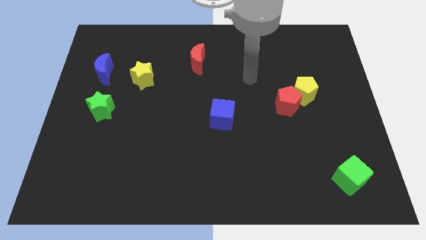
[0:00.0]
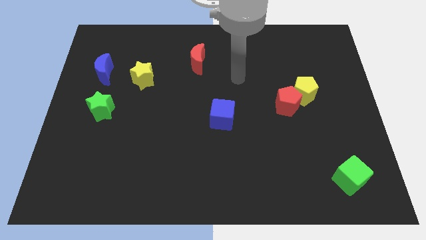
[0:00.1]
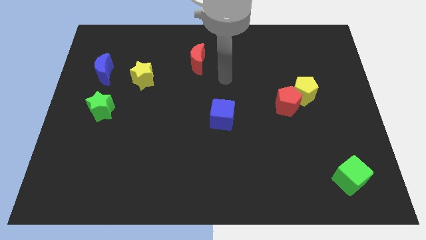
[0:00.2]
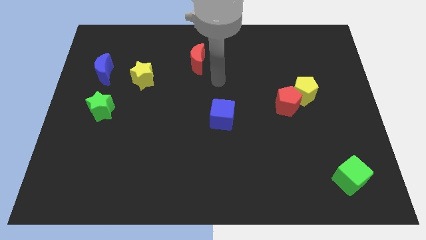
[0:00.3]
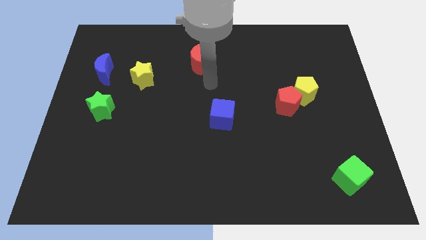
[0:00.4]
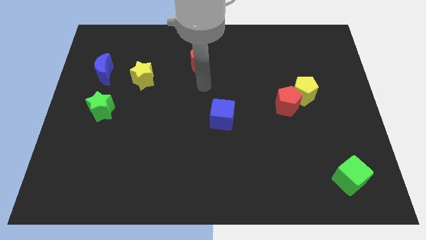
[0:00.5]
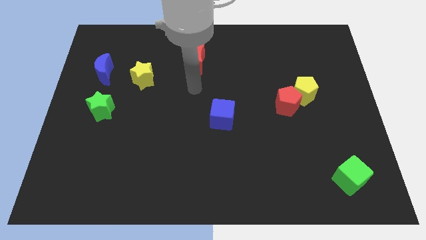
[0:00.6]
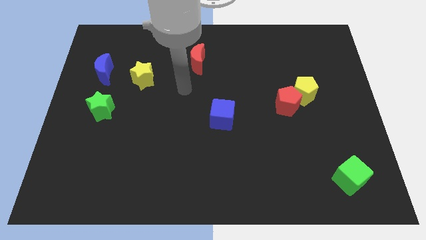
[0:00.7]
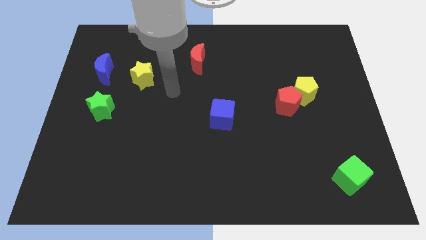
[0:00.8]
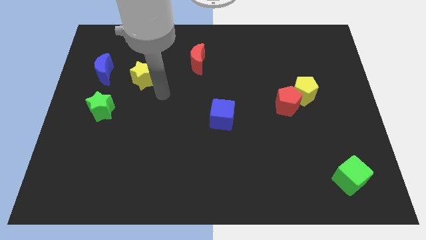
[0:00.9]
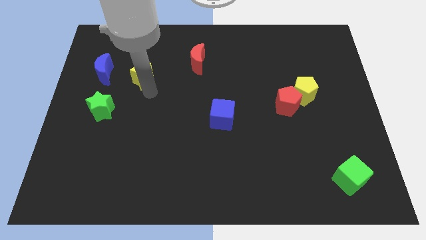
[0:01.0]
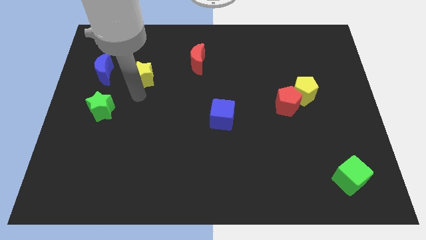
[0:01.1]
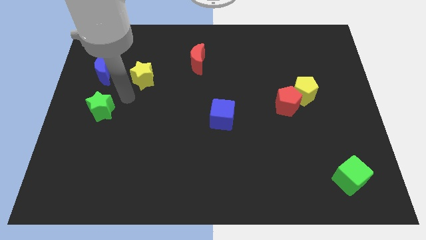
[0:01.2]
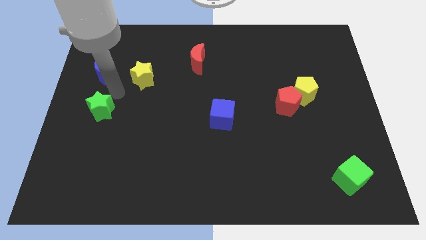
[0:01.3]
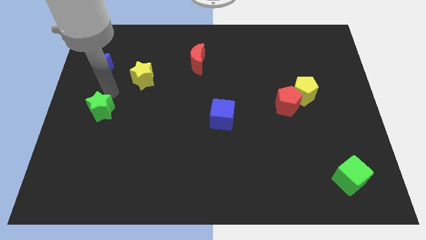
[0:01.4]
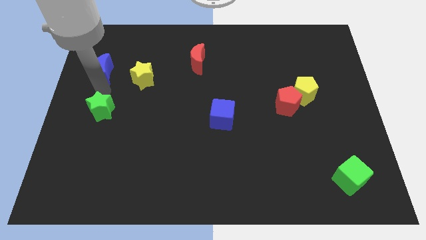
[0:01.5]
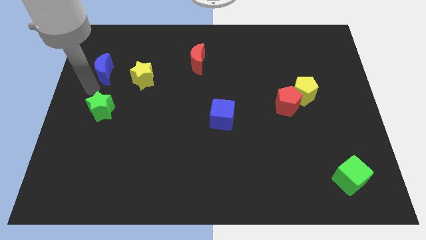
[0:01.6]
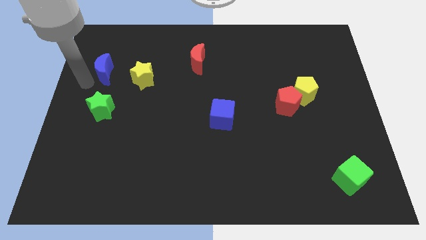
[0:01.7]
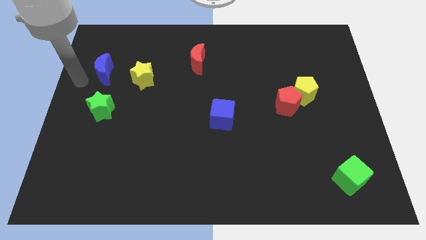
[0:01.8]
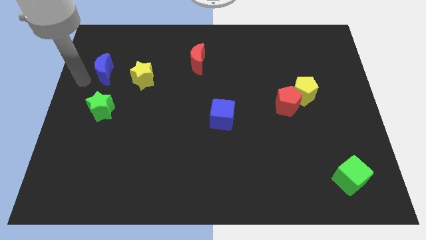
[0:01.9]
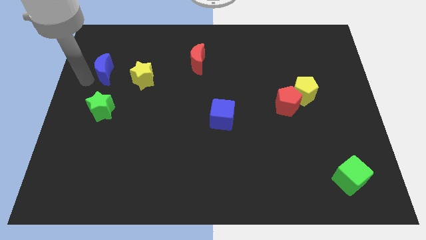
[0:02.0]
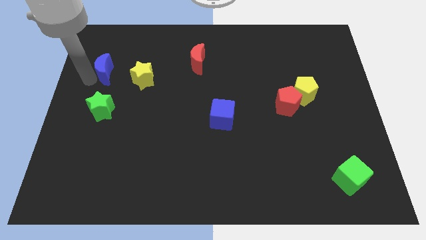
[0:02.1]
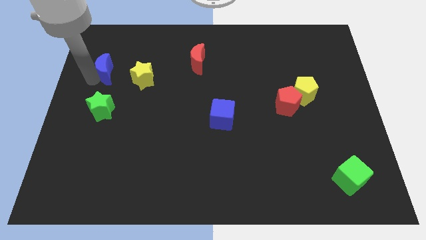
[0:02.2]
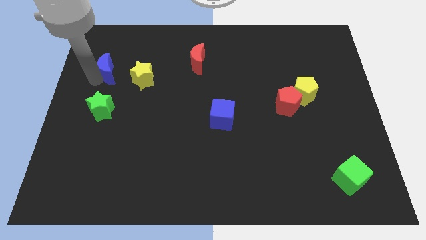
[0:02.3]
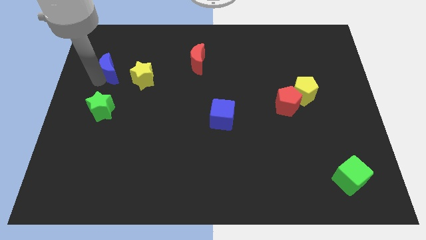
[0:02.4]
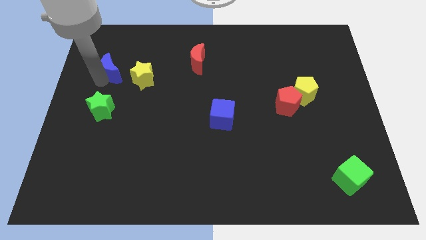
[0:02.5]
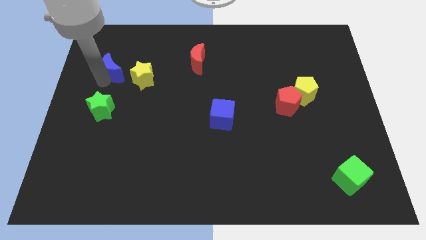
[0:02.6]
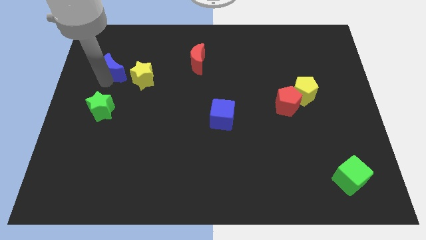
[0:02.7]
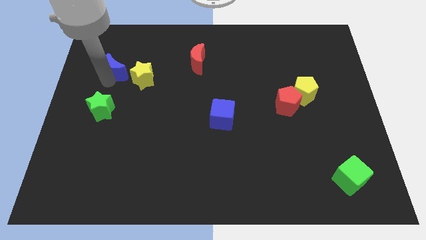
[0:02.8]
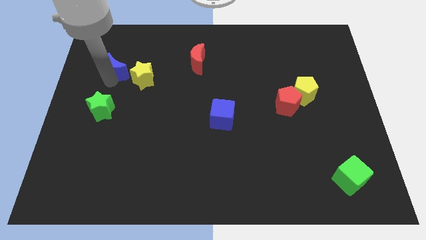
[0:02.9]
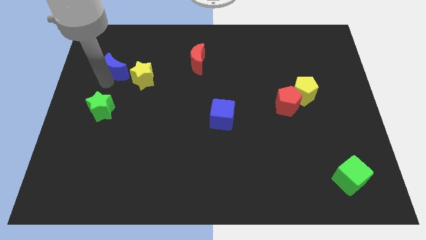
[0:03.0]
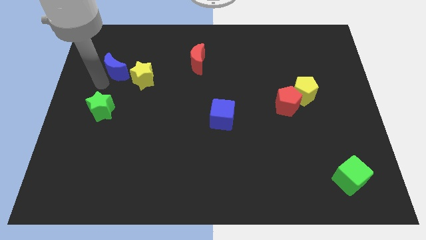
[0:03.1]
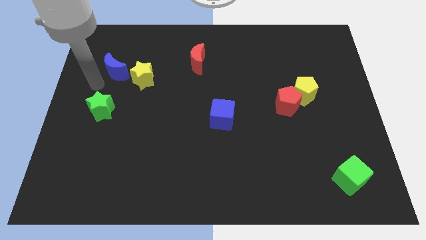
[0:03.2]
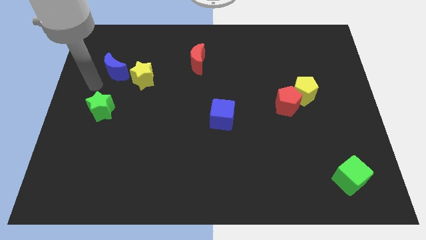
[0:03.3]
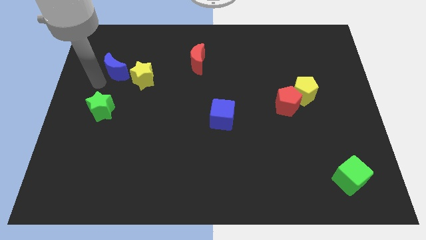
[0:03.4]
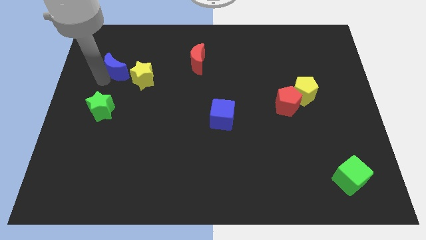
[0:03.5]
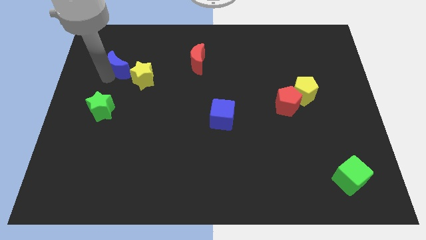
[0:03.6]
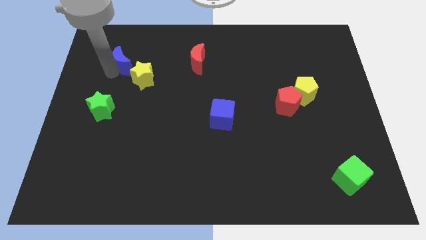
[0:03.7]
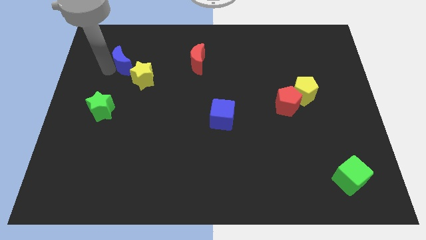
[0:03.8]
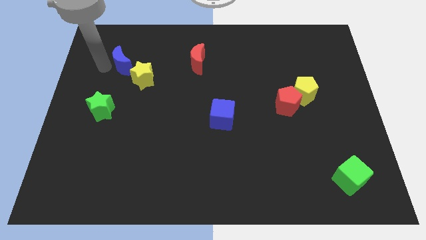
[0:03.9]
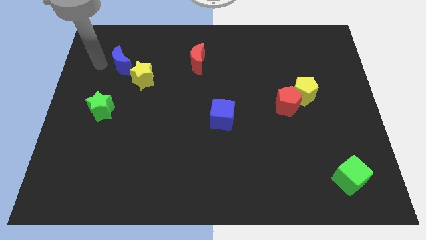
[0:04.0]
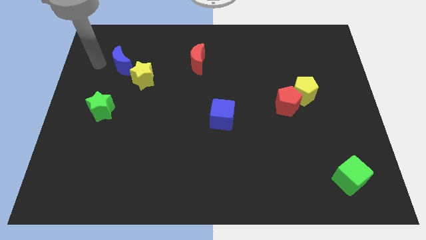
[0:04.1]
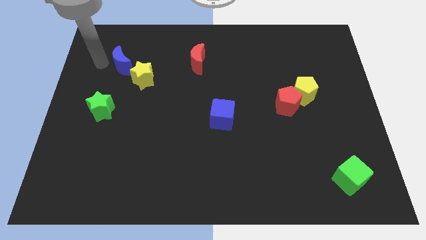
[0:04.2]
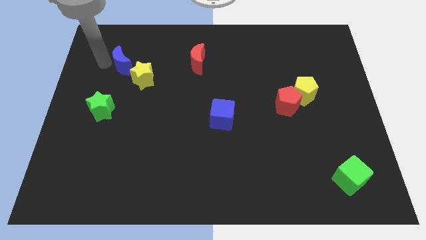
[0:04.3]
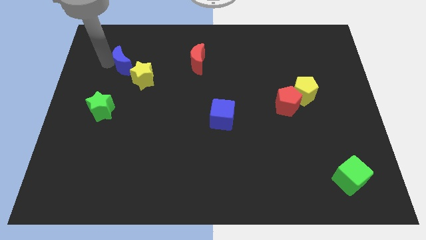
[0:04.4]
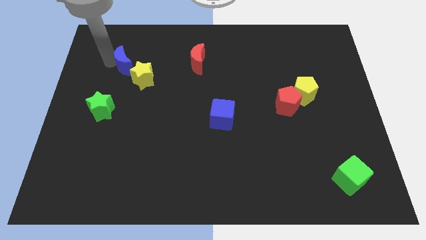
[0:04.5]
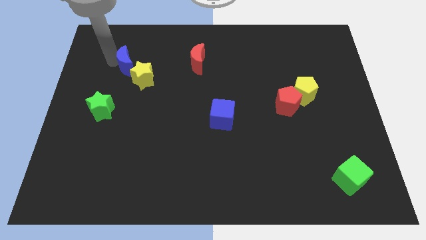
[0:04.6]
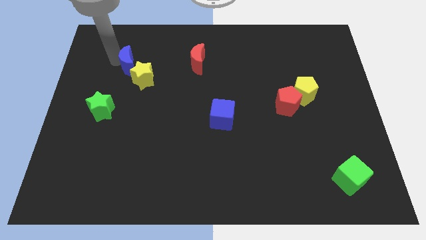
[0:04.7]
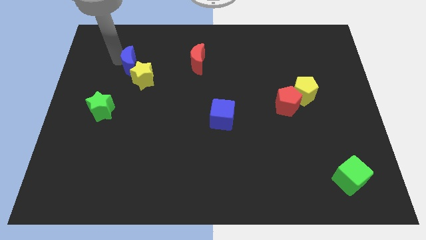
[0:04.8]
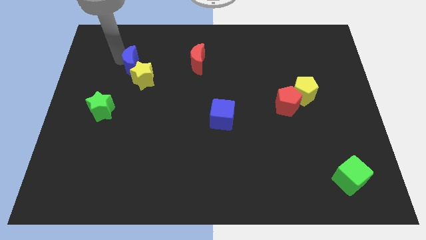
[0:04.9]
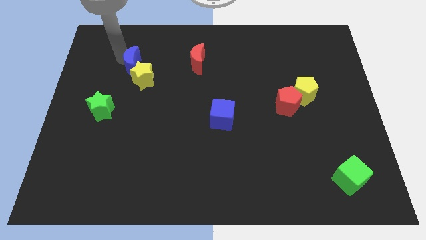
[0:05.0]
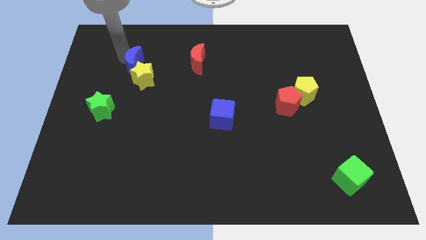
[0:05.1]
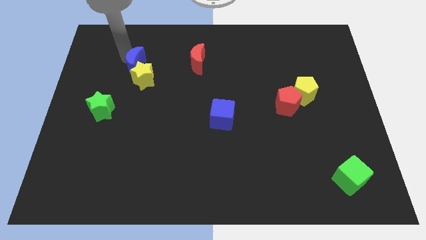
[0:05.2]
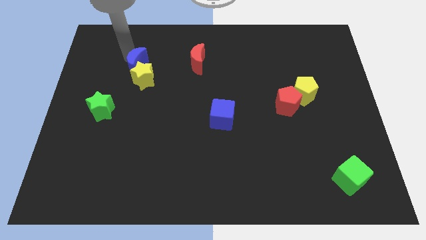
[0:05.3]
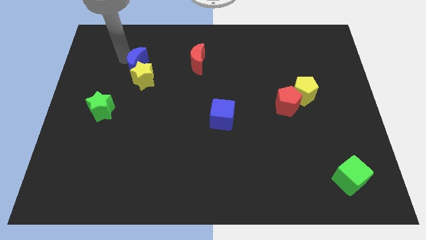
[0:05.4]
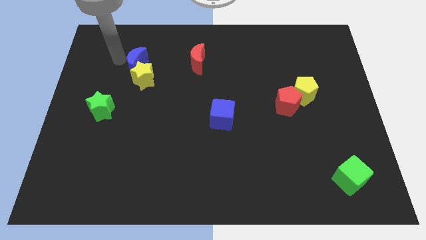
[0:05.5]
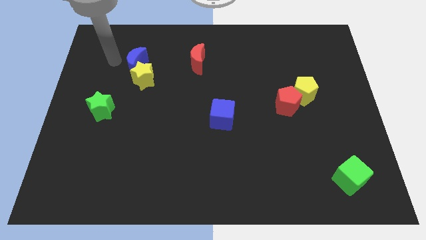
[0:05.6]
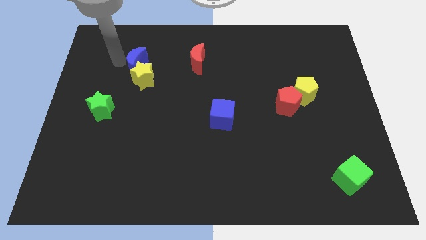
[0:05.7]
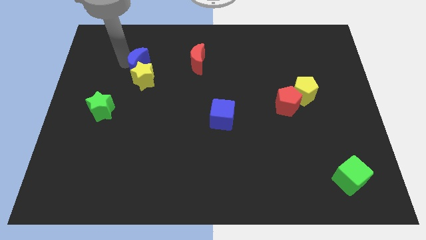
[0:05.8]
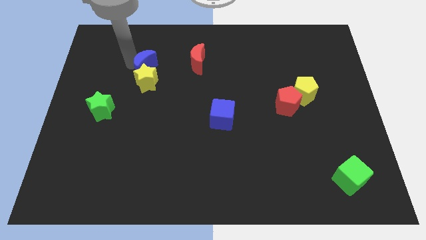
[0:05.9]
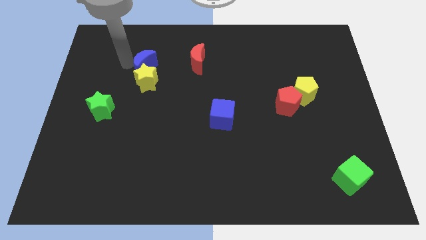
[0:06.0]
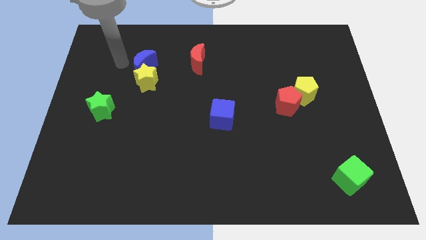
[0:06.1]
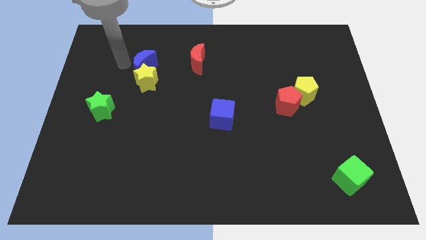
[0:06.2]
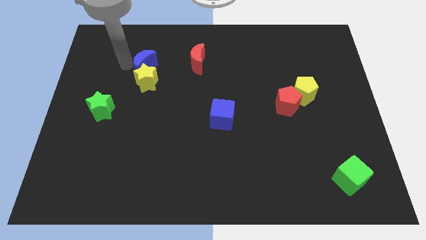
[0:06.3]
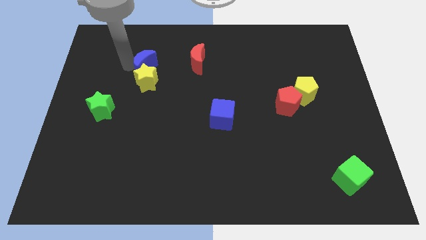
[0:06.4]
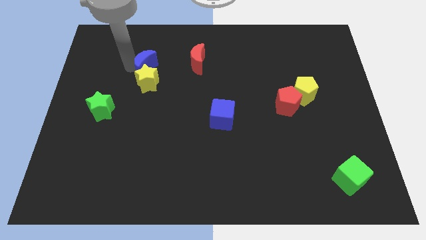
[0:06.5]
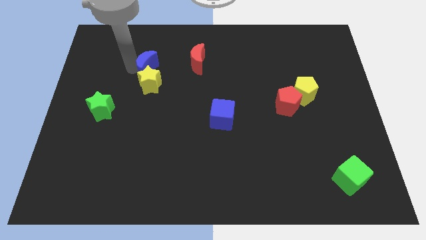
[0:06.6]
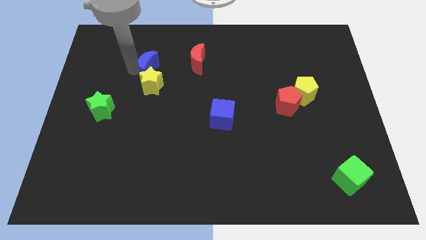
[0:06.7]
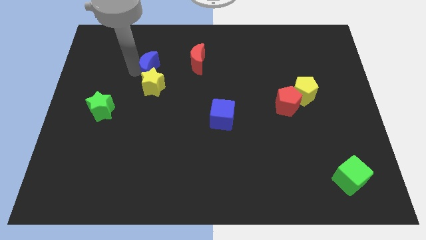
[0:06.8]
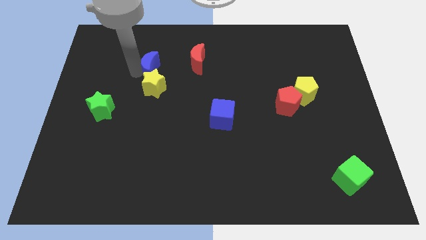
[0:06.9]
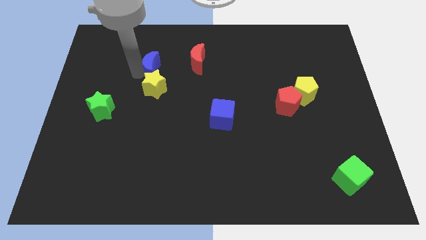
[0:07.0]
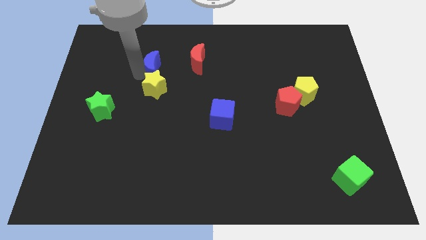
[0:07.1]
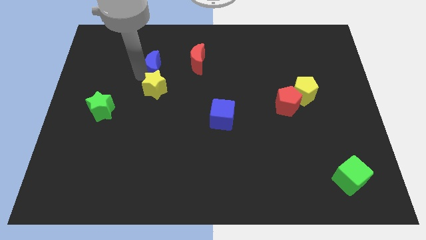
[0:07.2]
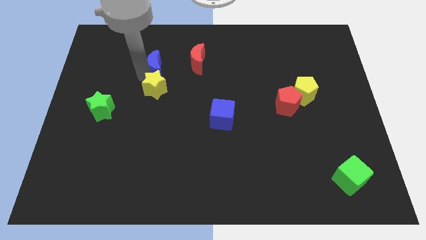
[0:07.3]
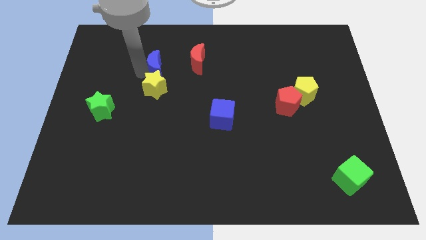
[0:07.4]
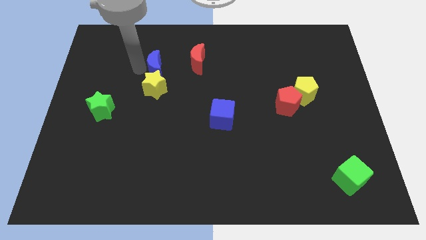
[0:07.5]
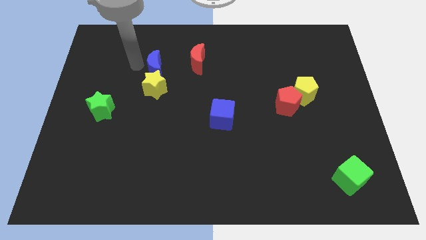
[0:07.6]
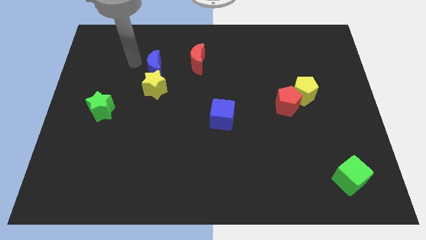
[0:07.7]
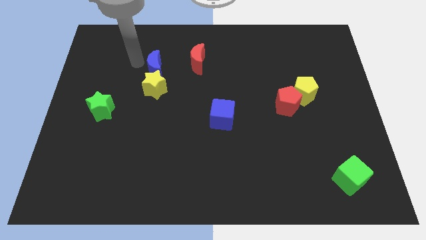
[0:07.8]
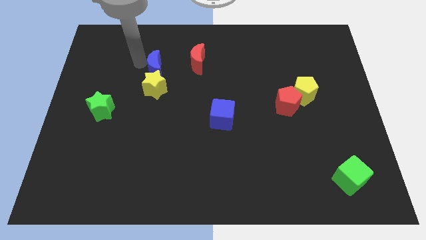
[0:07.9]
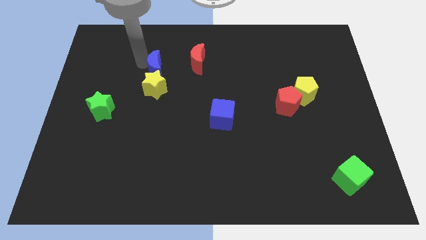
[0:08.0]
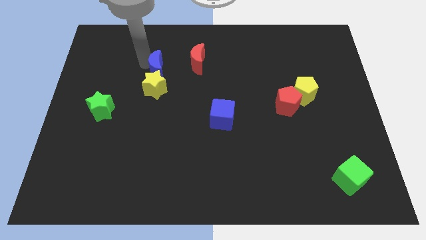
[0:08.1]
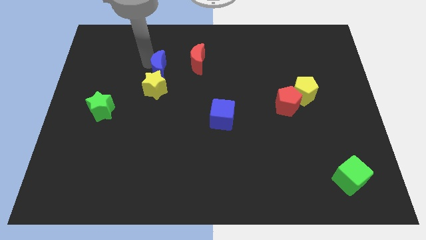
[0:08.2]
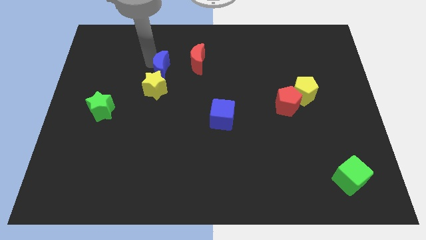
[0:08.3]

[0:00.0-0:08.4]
push the blue moon to the bottom left side of the red moon
